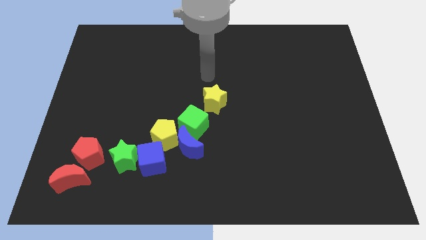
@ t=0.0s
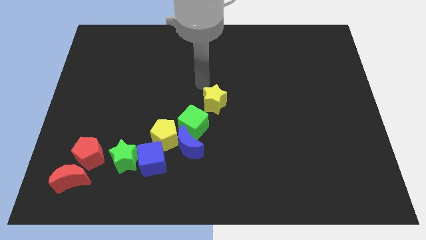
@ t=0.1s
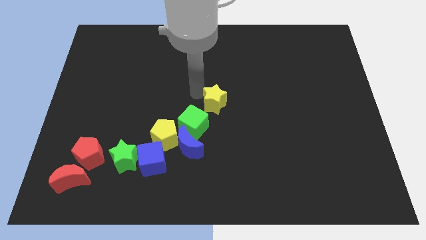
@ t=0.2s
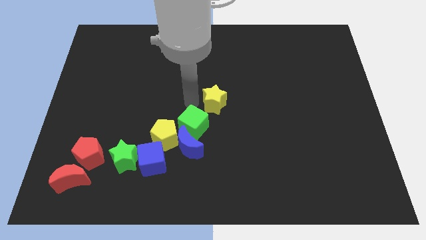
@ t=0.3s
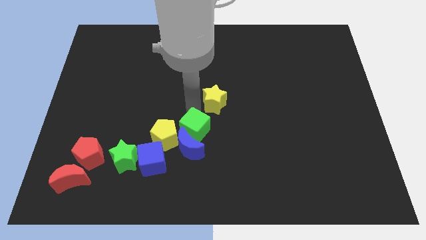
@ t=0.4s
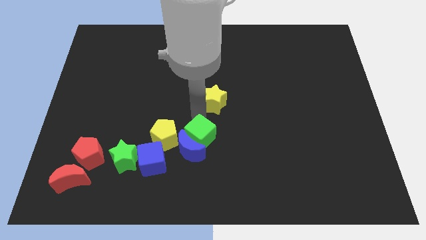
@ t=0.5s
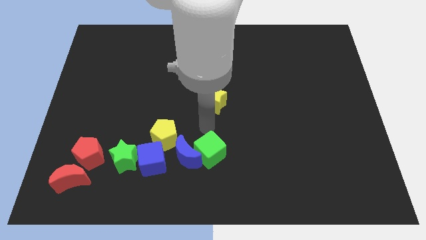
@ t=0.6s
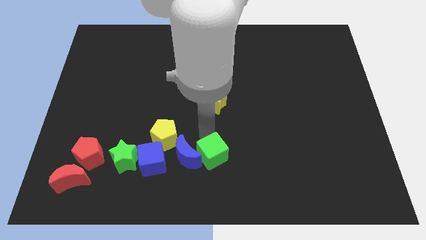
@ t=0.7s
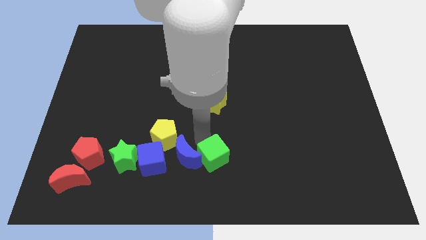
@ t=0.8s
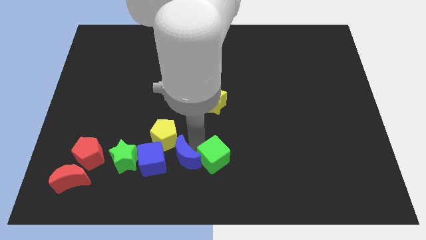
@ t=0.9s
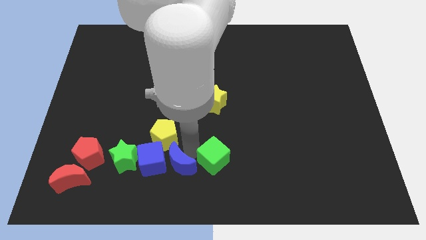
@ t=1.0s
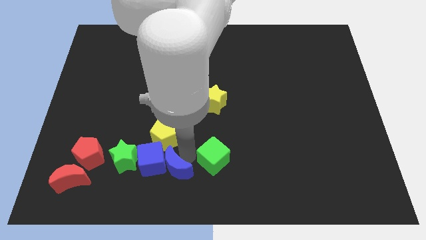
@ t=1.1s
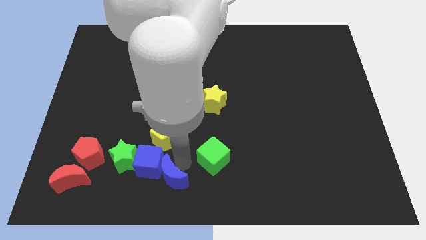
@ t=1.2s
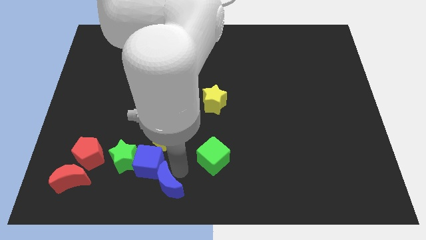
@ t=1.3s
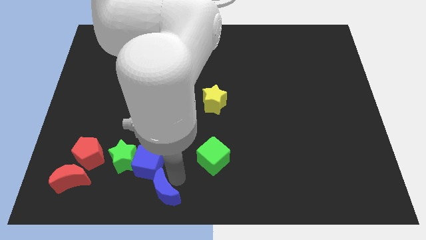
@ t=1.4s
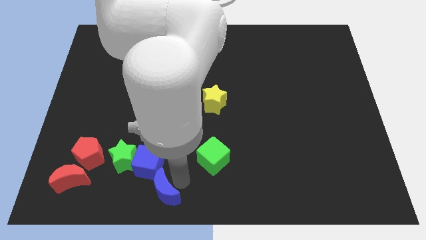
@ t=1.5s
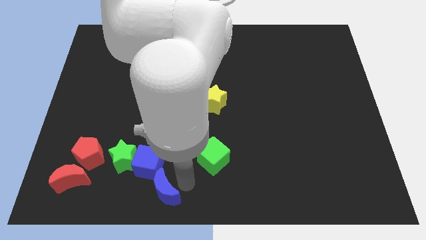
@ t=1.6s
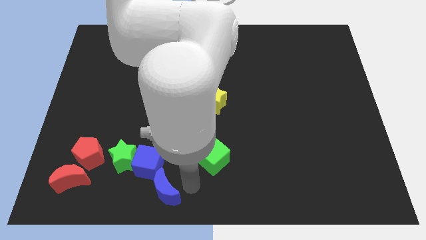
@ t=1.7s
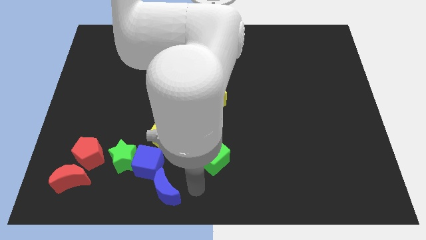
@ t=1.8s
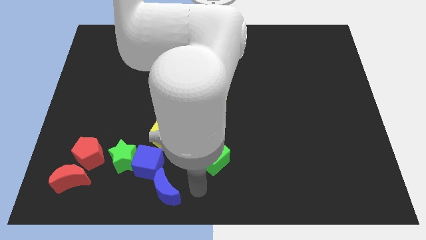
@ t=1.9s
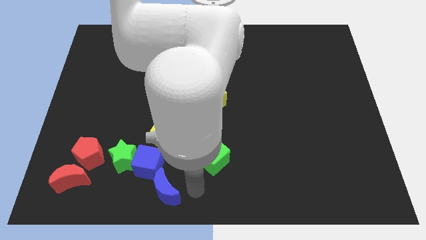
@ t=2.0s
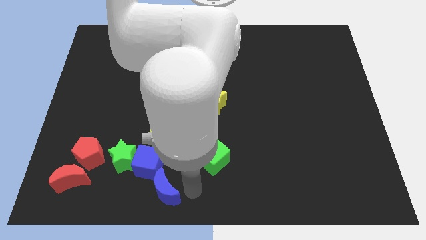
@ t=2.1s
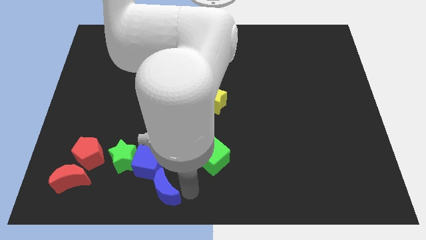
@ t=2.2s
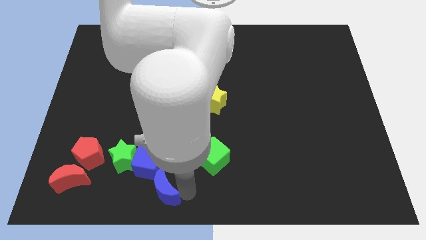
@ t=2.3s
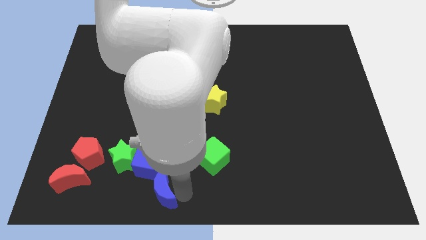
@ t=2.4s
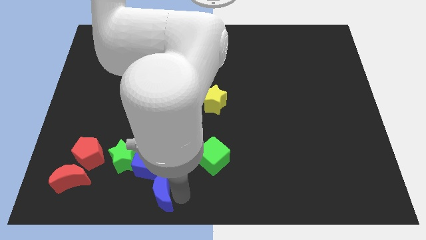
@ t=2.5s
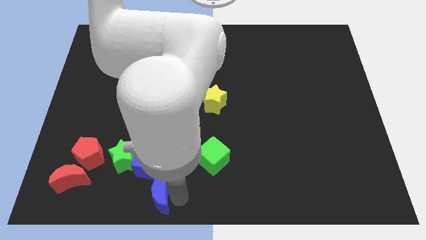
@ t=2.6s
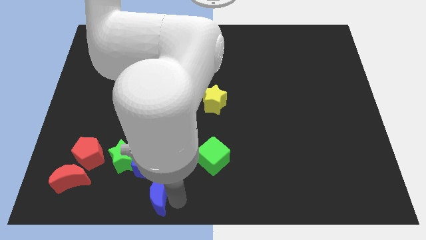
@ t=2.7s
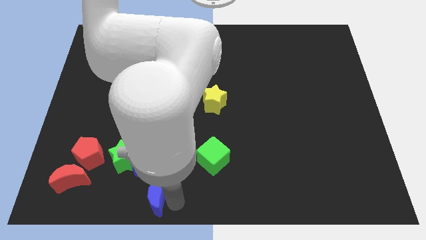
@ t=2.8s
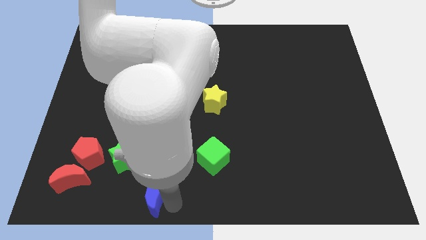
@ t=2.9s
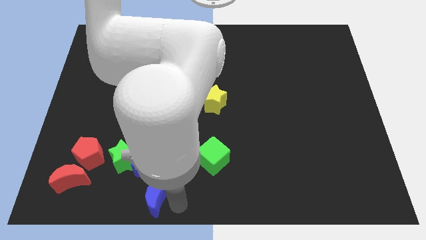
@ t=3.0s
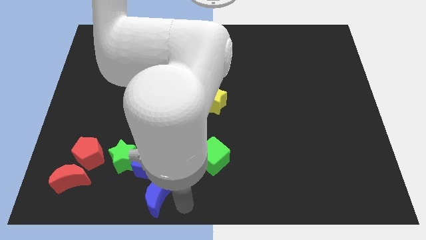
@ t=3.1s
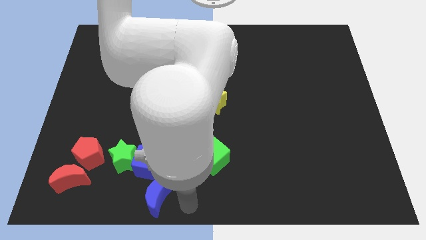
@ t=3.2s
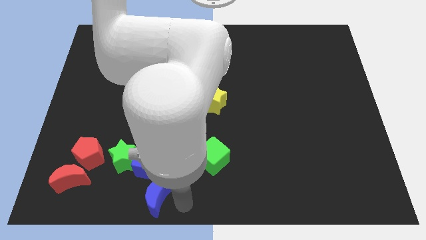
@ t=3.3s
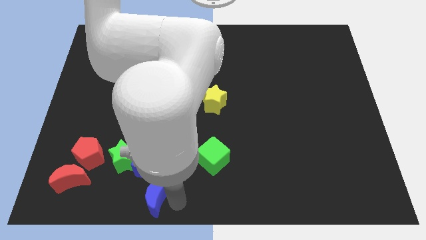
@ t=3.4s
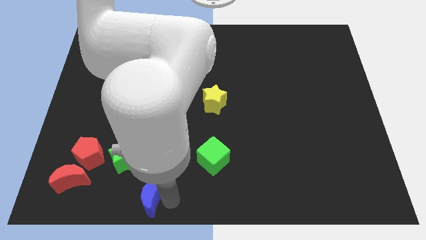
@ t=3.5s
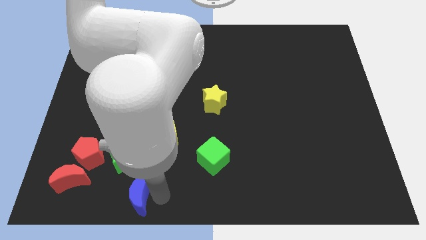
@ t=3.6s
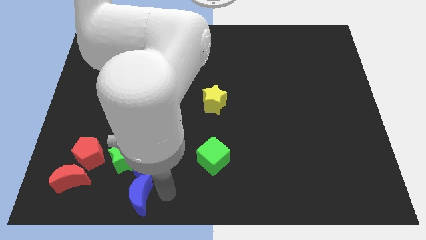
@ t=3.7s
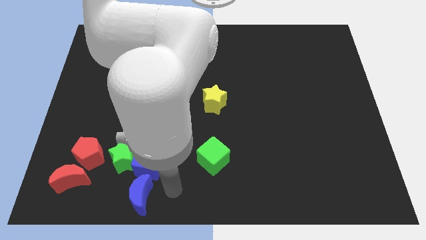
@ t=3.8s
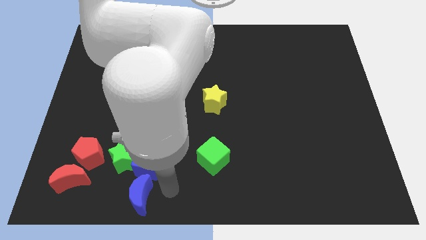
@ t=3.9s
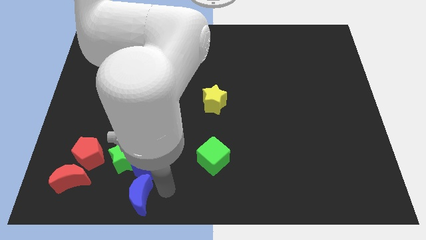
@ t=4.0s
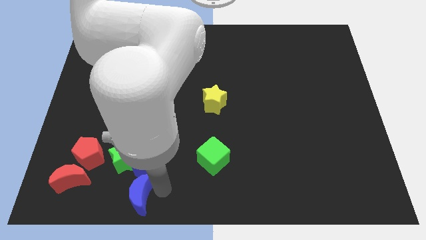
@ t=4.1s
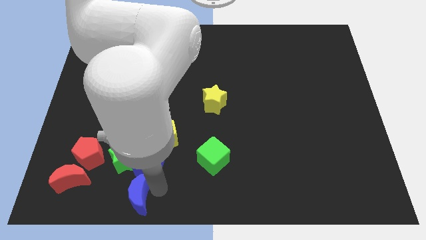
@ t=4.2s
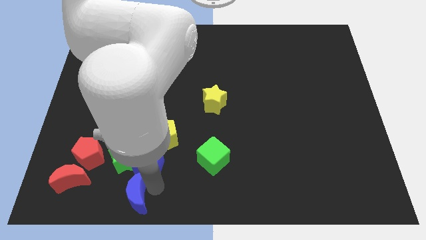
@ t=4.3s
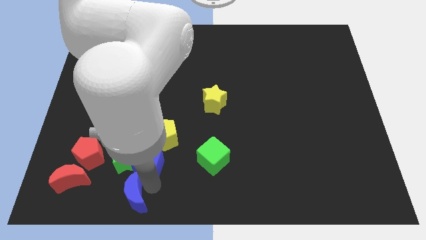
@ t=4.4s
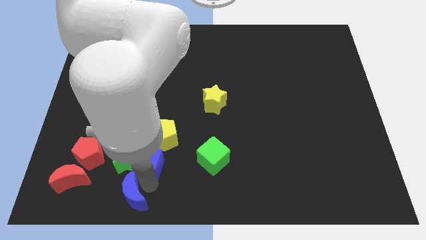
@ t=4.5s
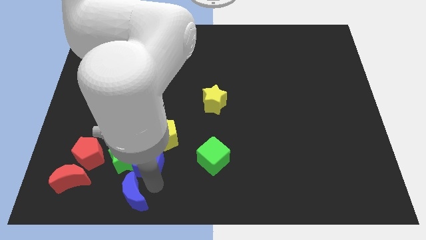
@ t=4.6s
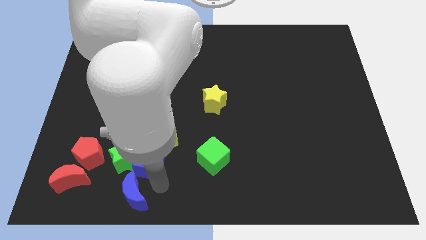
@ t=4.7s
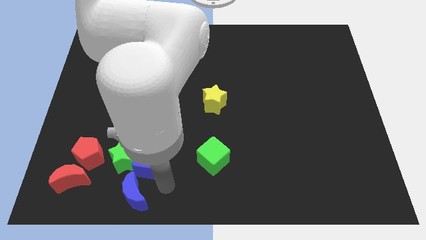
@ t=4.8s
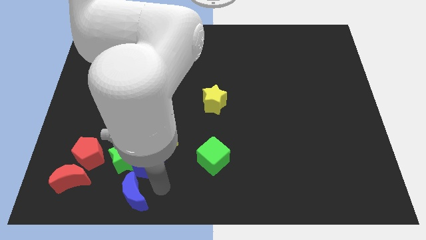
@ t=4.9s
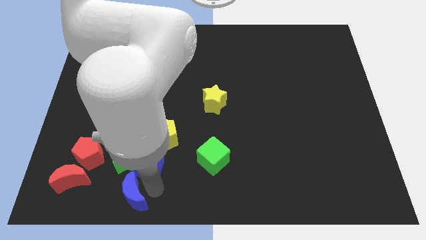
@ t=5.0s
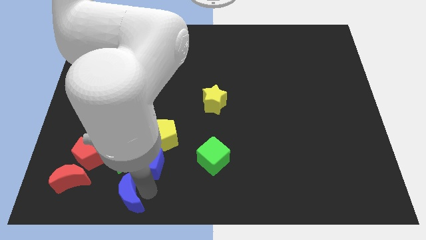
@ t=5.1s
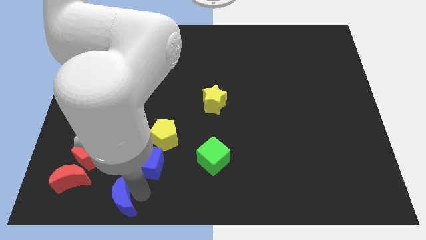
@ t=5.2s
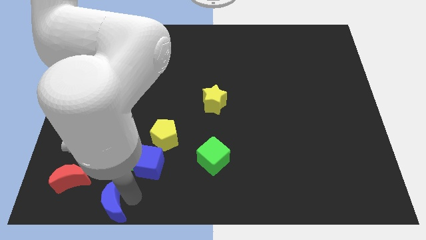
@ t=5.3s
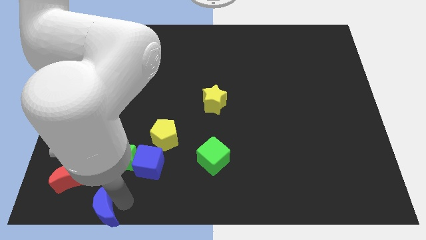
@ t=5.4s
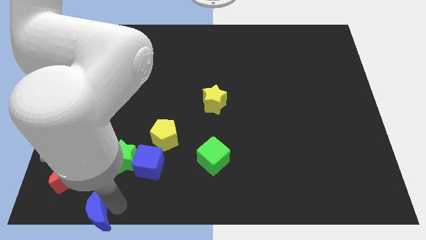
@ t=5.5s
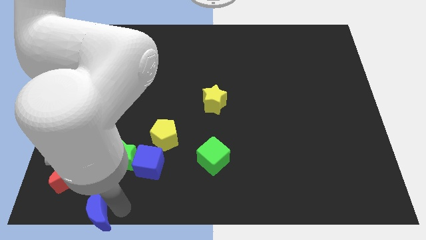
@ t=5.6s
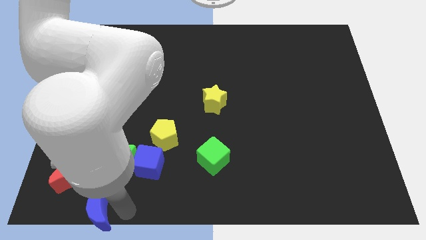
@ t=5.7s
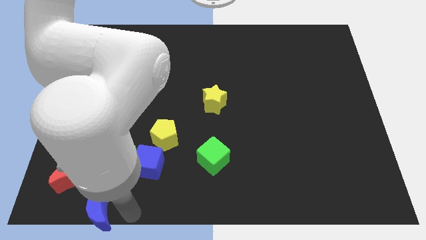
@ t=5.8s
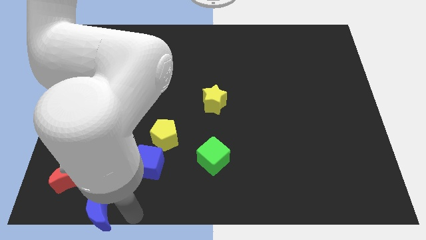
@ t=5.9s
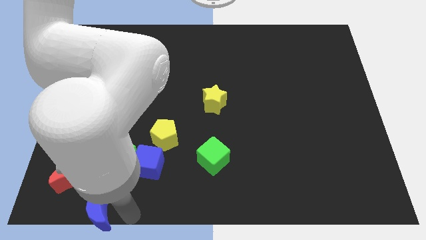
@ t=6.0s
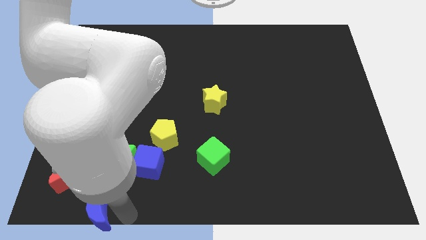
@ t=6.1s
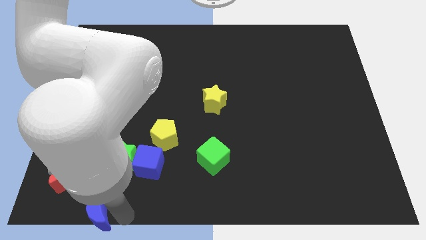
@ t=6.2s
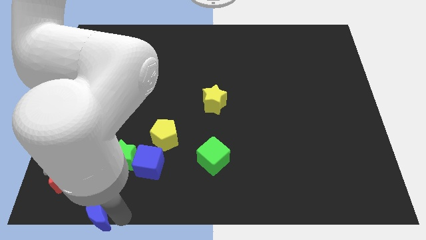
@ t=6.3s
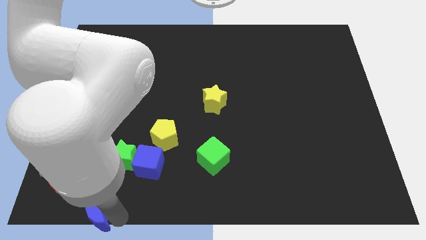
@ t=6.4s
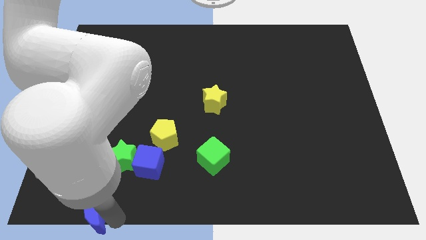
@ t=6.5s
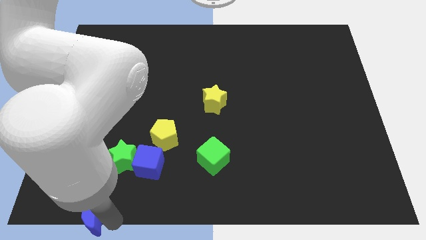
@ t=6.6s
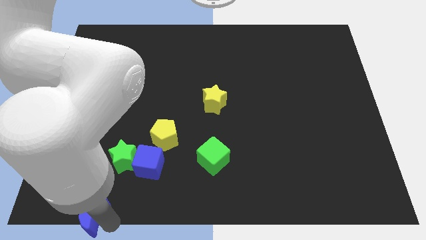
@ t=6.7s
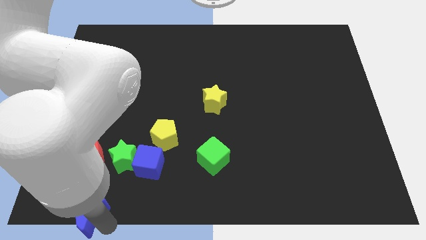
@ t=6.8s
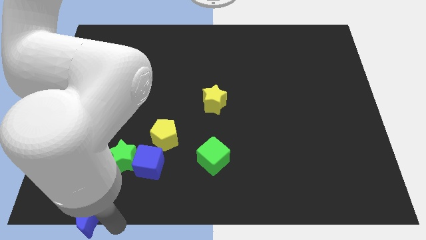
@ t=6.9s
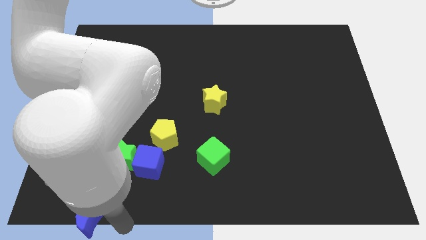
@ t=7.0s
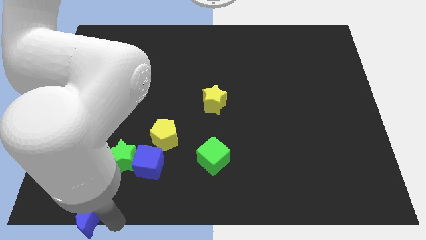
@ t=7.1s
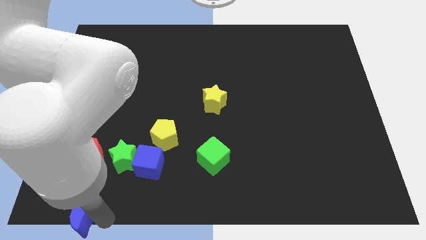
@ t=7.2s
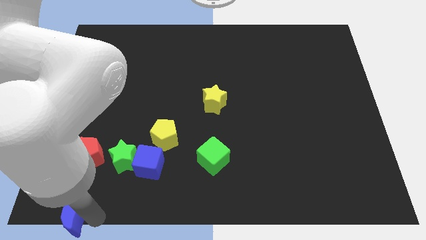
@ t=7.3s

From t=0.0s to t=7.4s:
push the blue moon to the lower left corner
